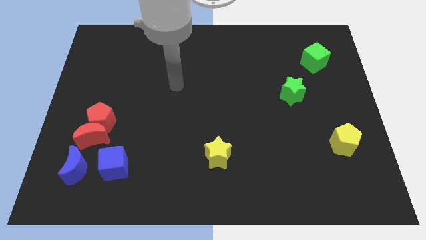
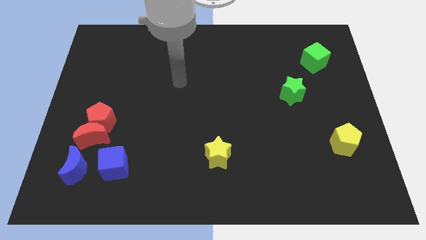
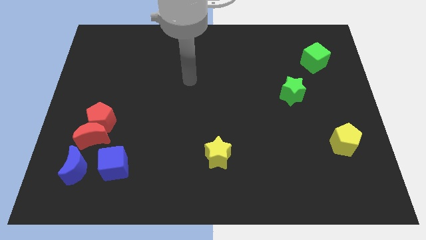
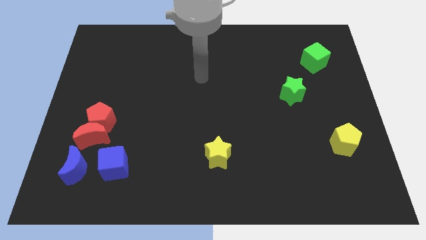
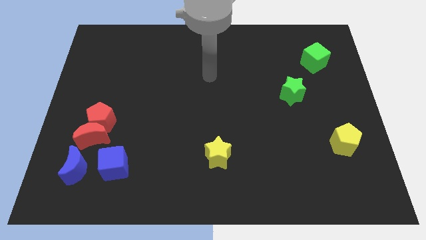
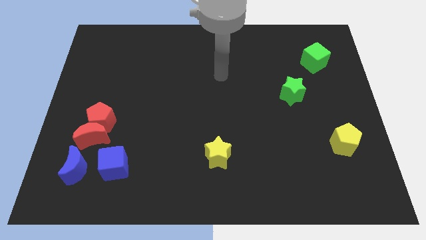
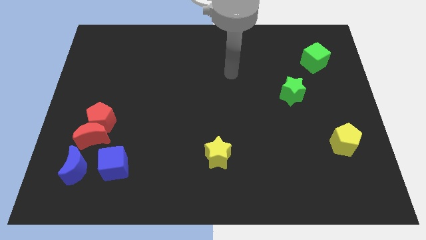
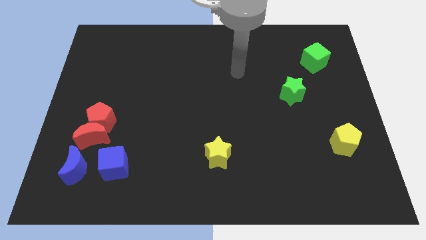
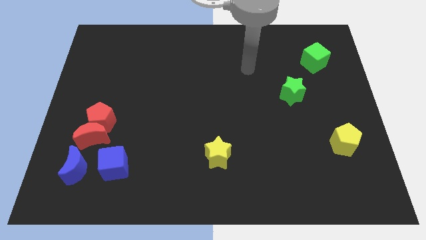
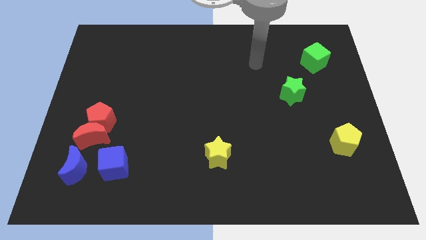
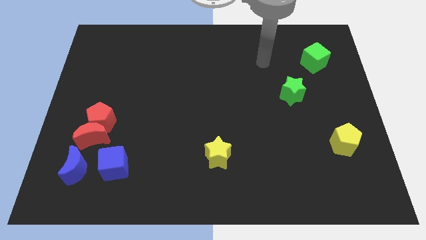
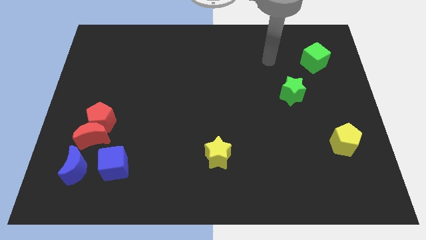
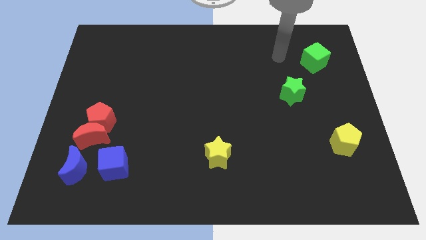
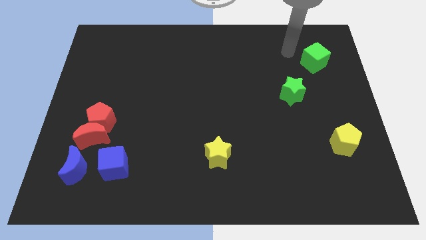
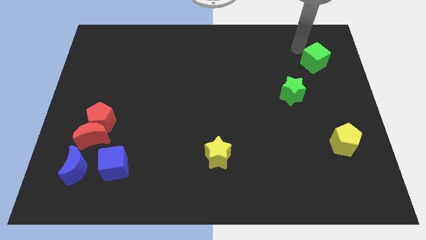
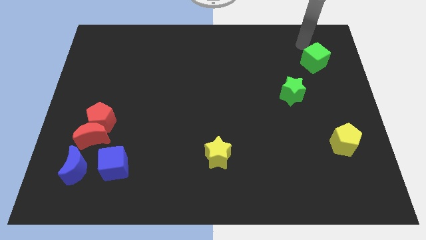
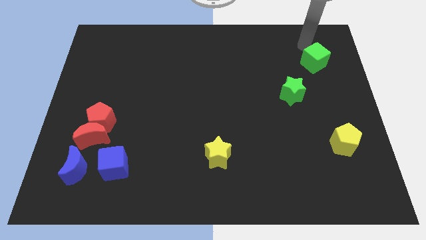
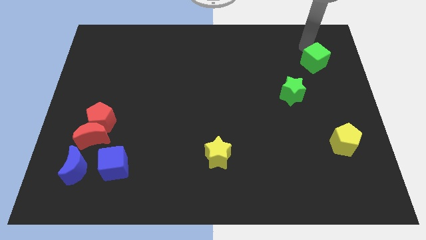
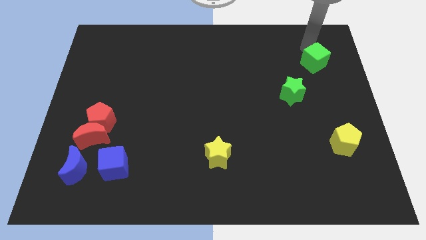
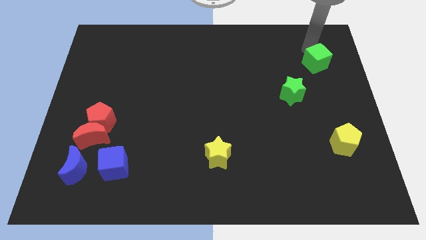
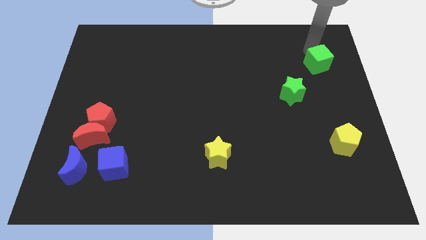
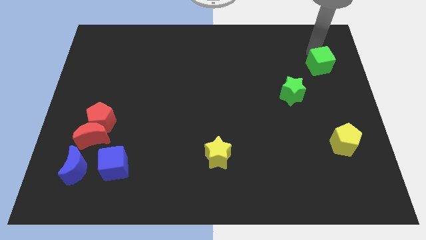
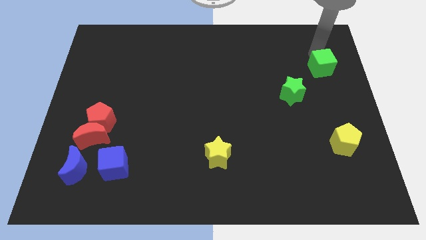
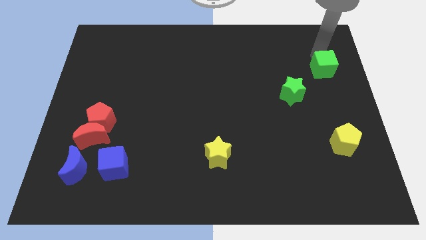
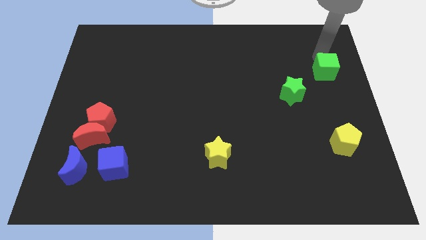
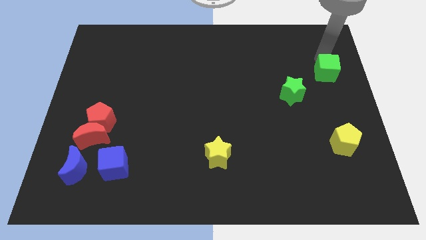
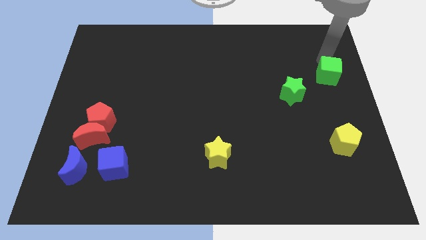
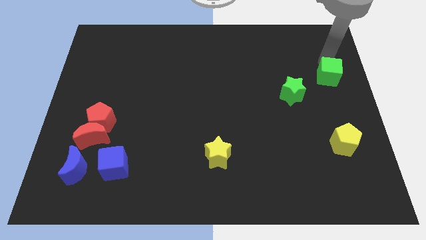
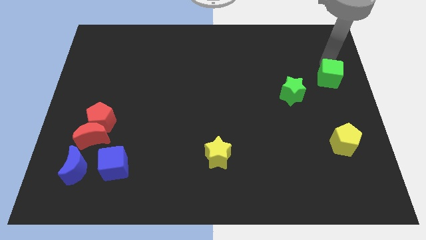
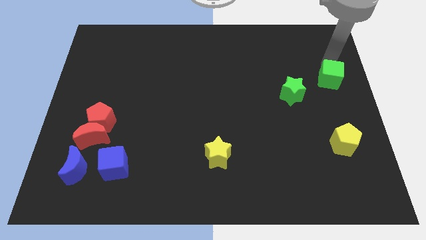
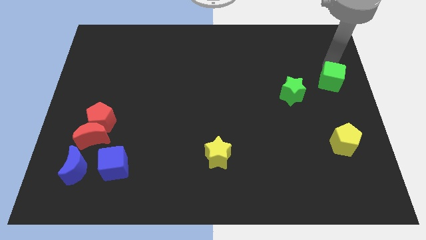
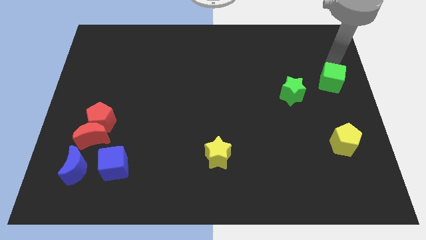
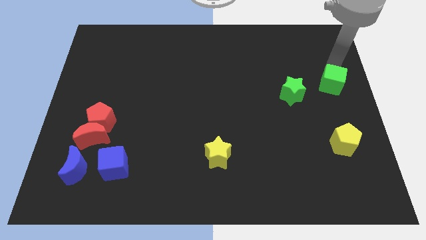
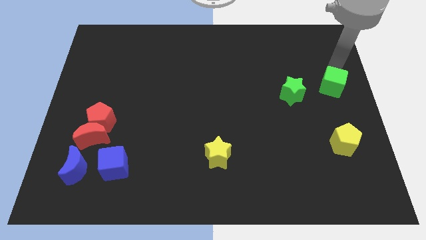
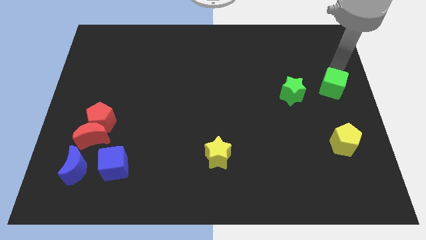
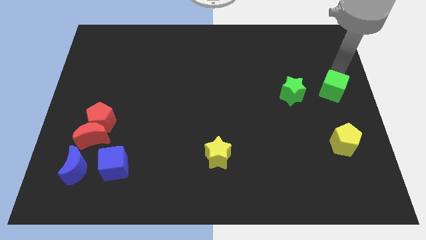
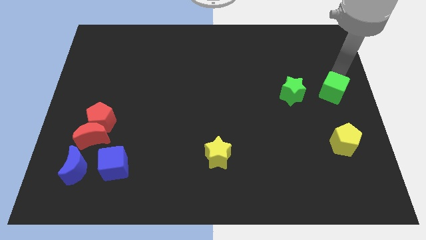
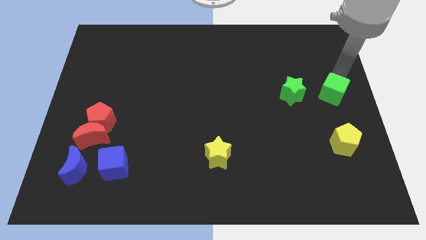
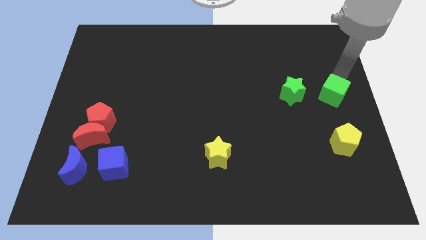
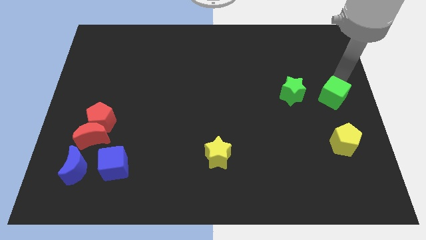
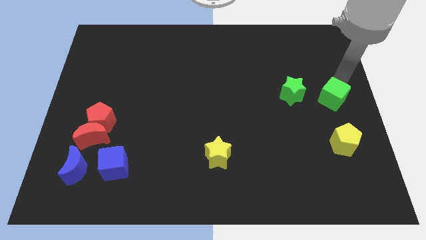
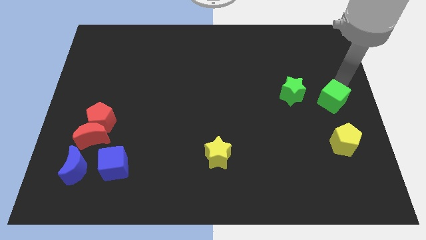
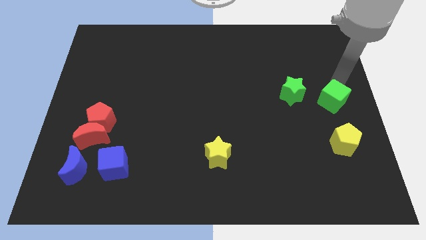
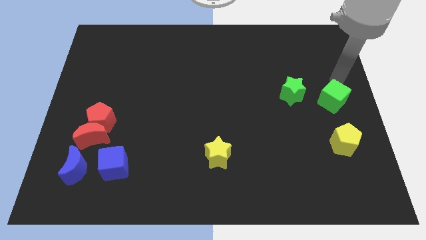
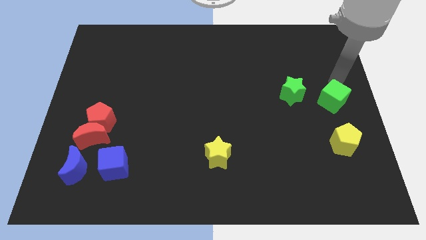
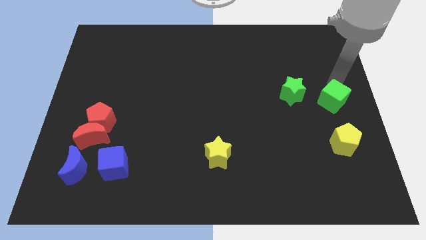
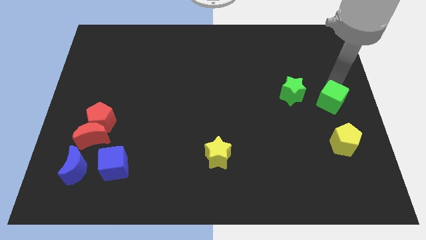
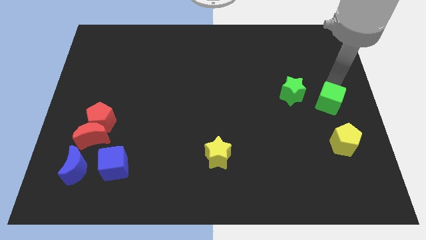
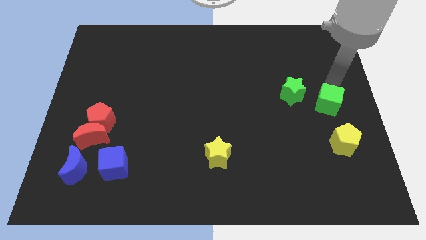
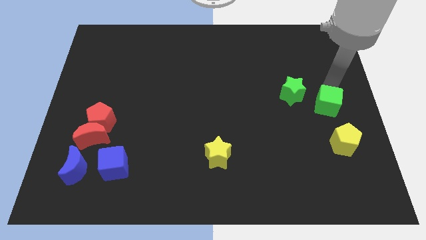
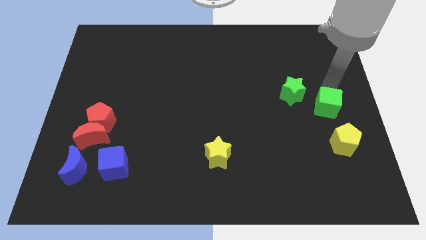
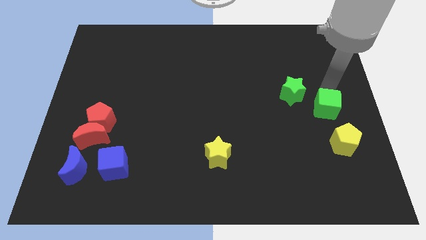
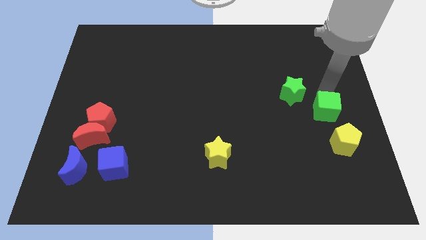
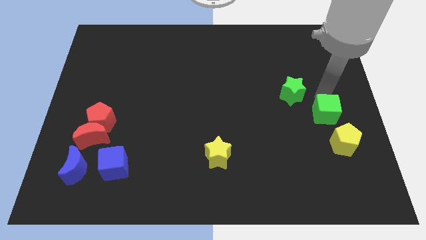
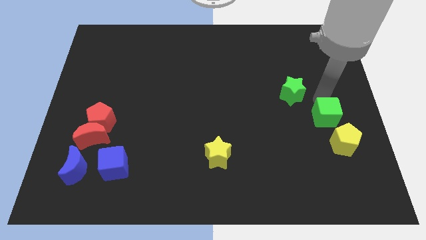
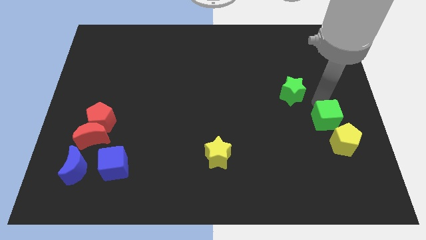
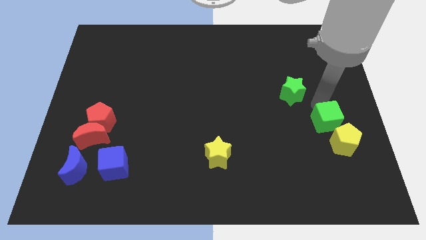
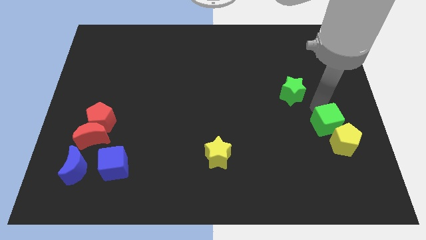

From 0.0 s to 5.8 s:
push the green cube to the yellow pentagon

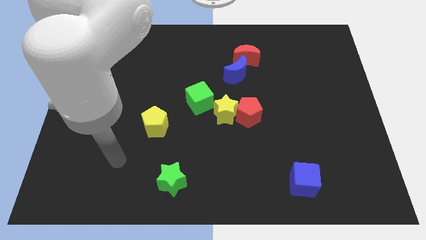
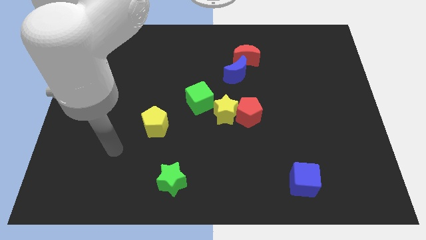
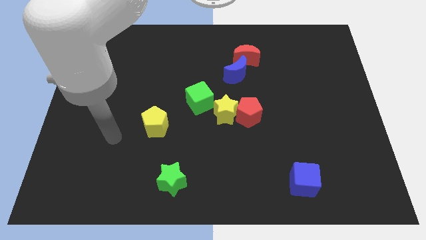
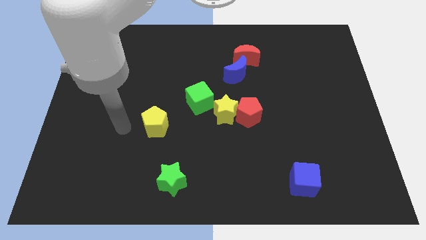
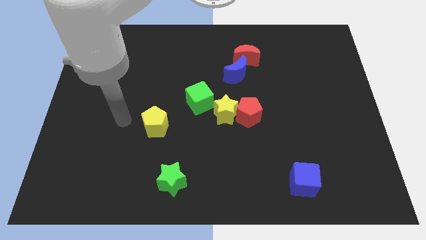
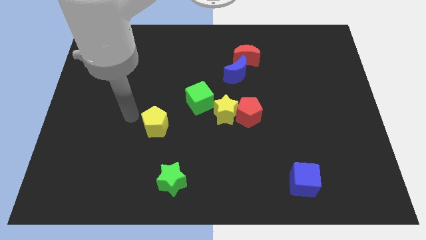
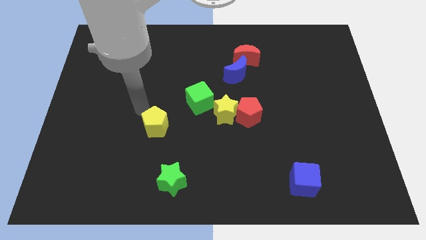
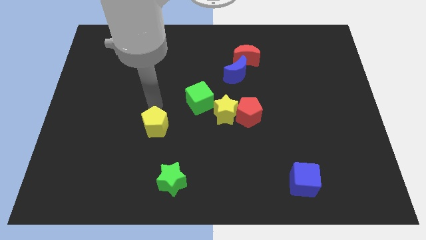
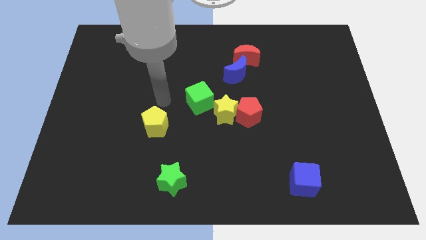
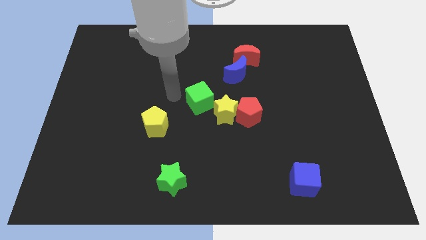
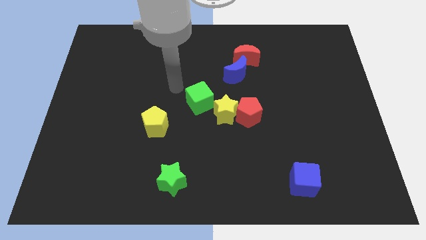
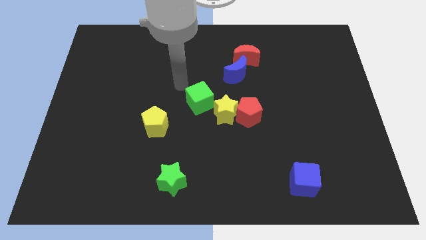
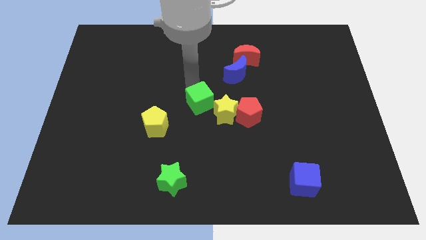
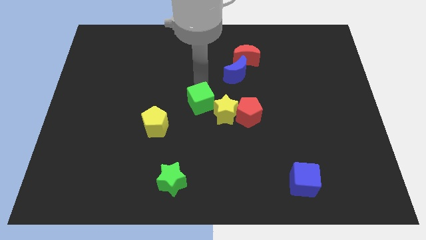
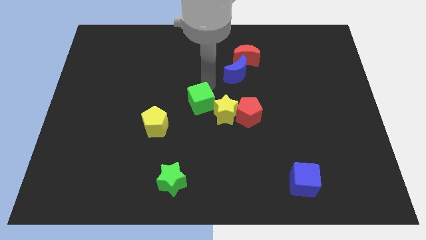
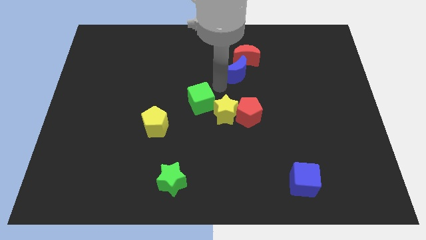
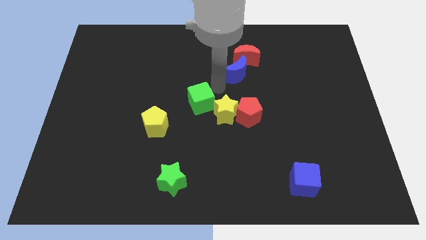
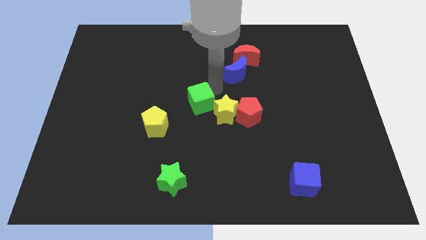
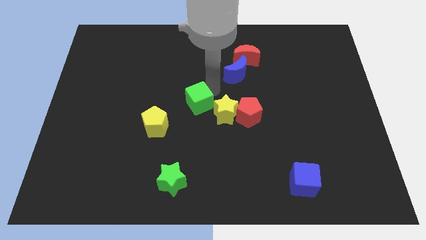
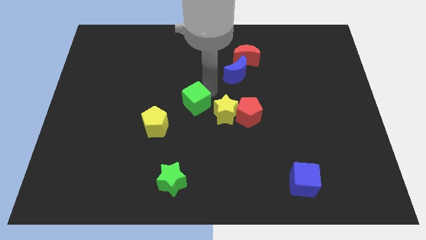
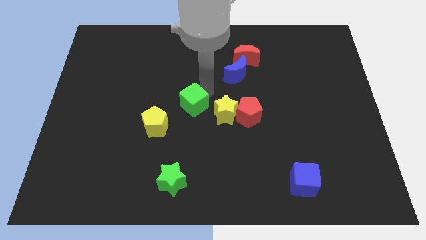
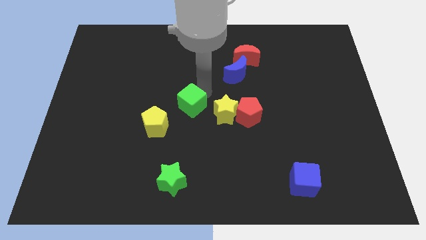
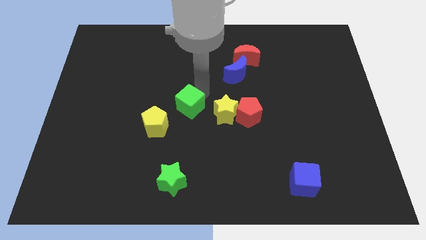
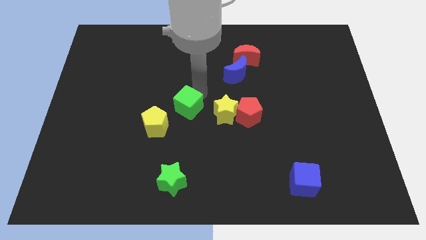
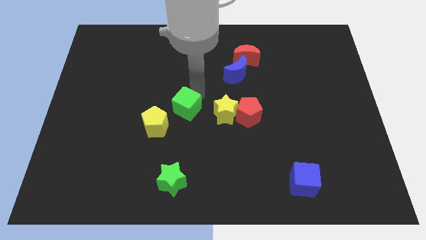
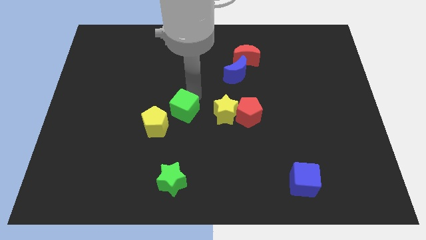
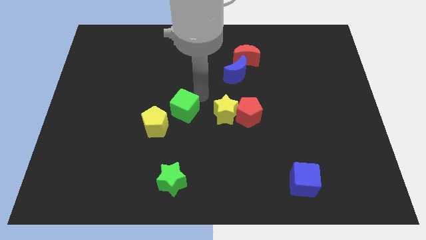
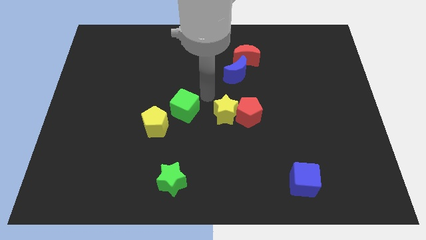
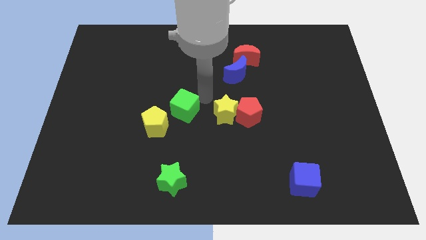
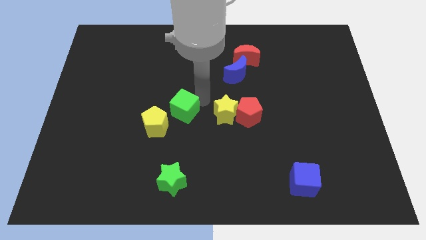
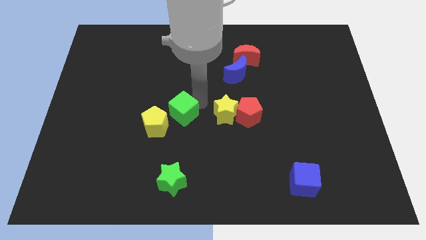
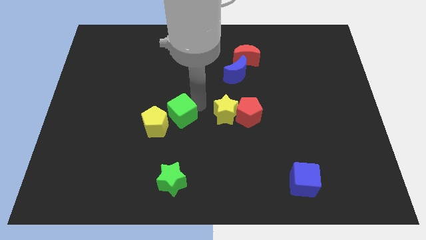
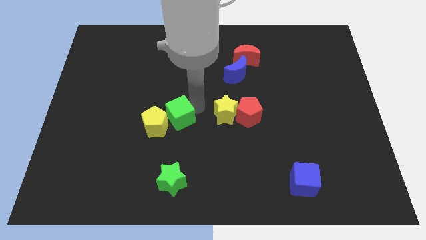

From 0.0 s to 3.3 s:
move the green cube towards the yellow pentagon
